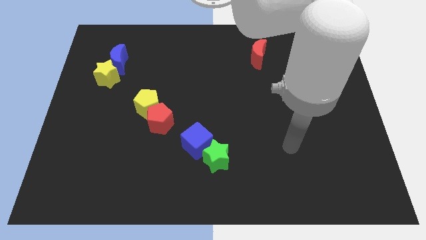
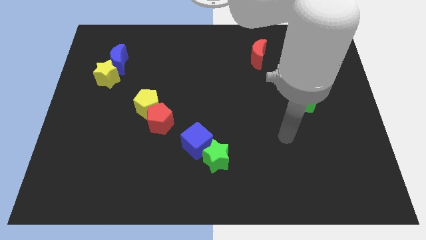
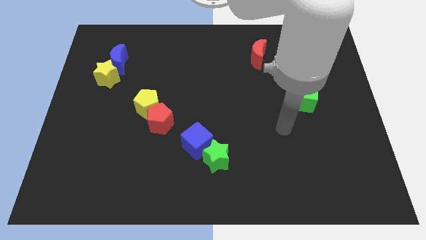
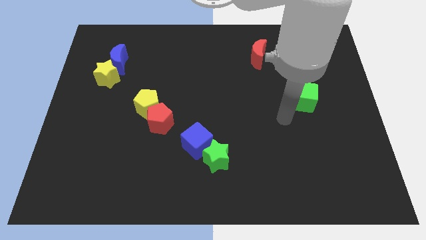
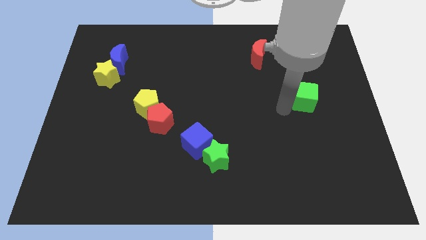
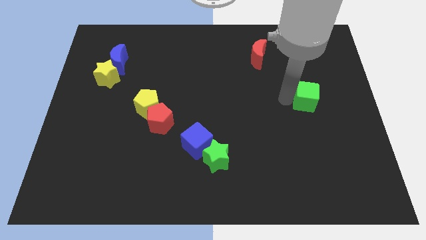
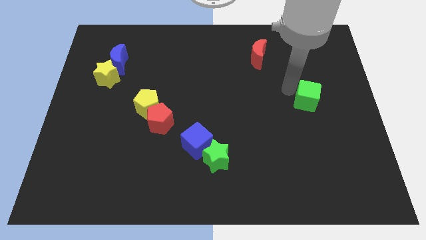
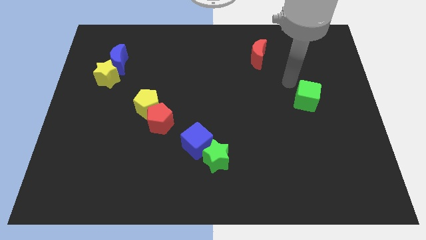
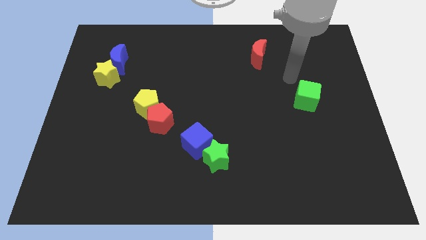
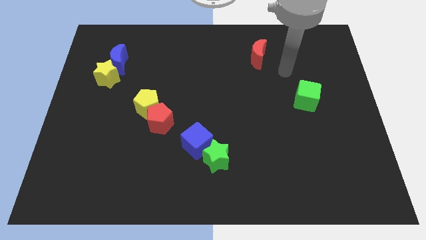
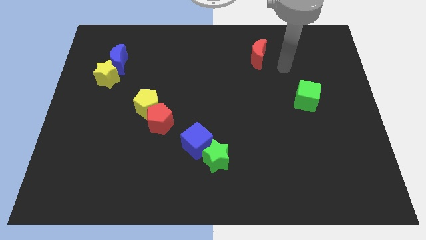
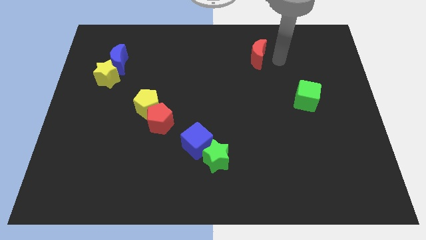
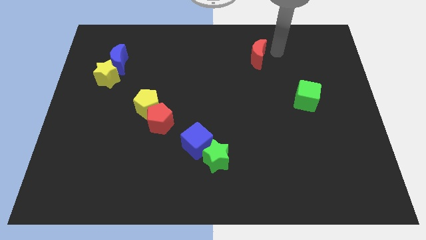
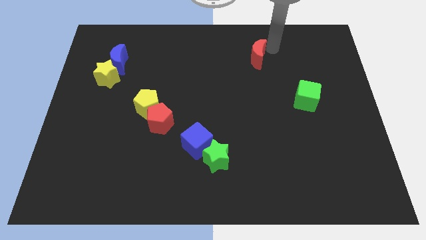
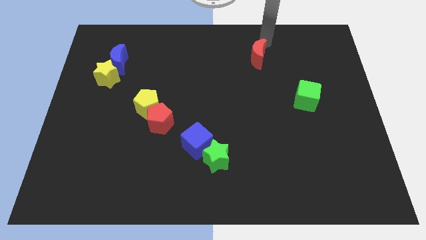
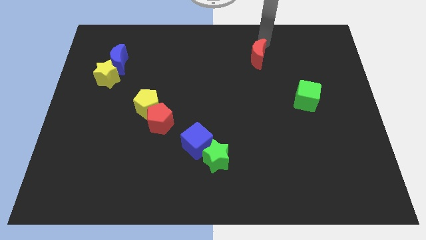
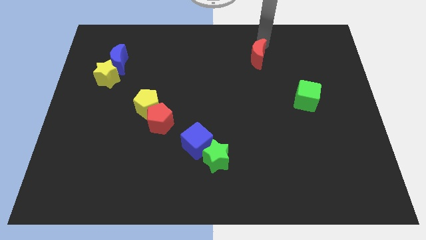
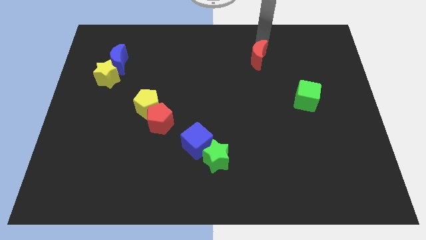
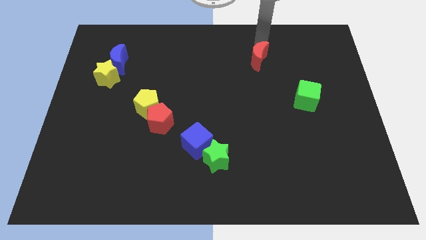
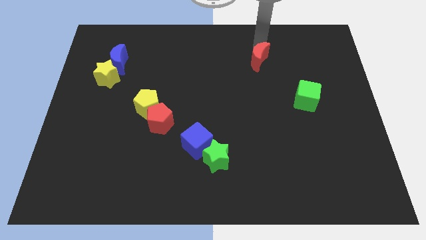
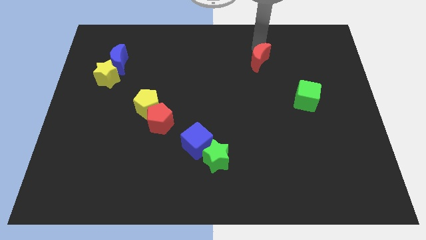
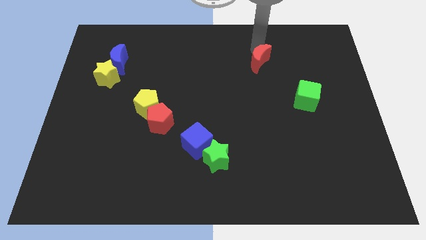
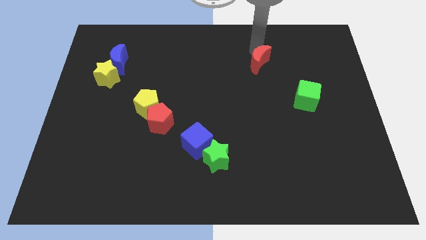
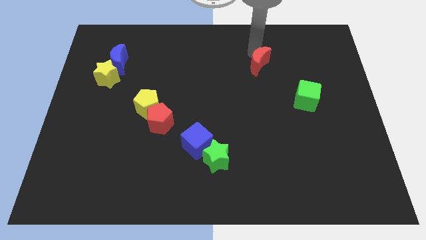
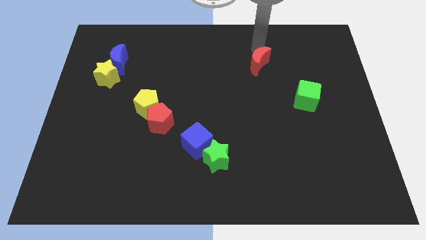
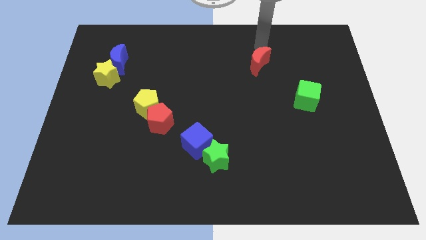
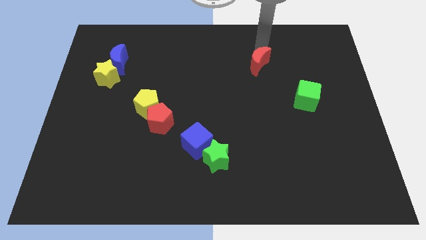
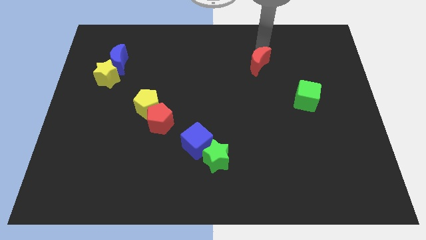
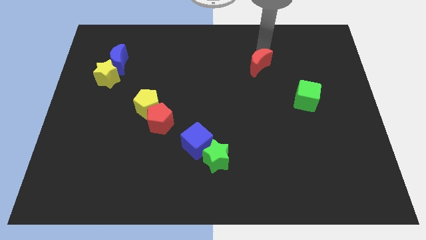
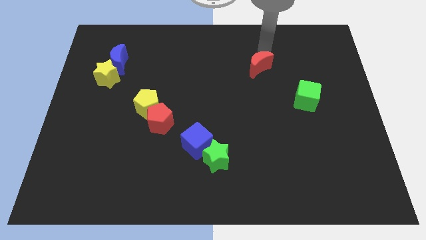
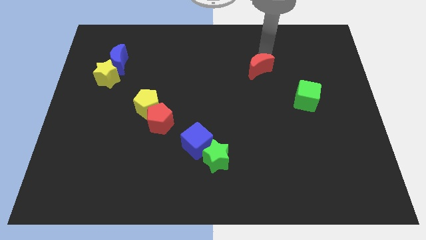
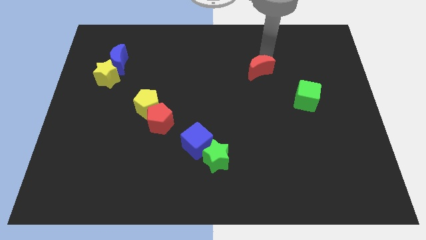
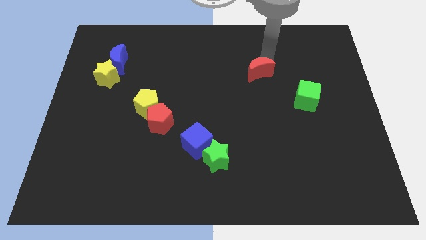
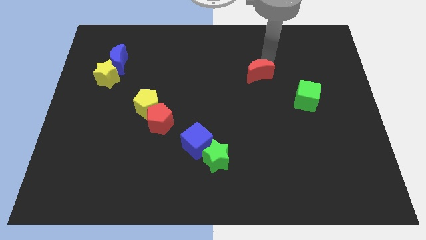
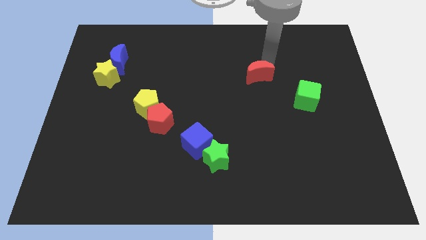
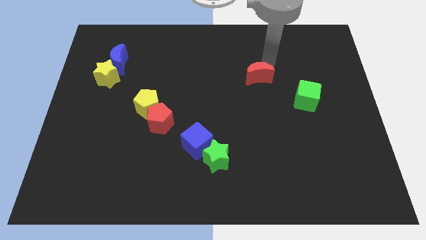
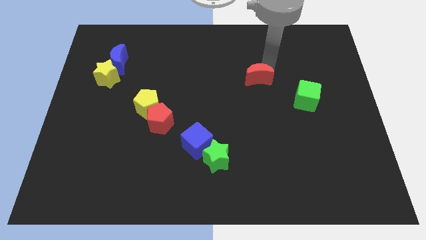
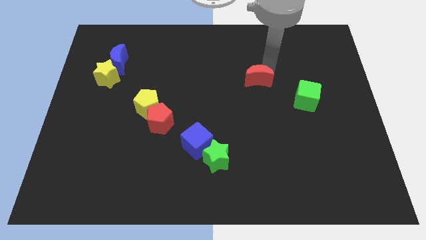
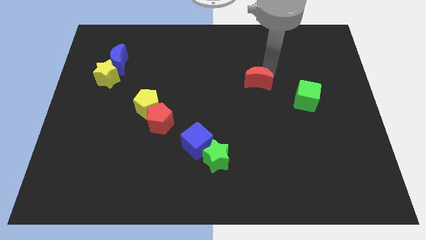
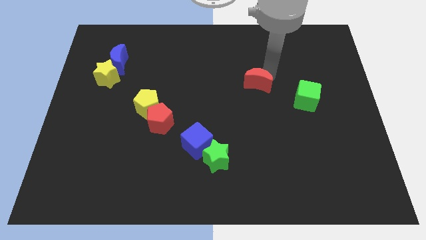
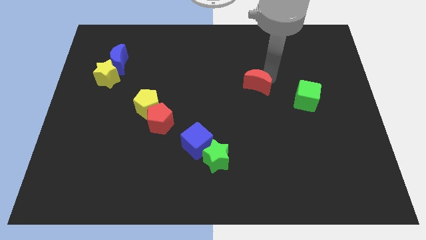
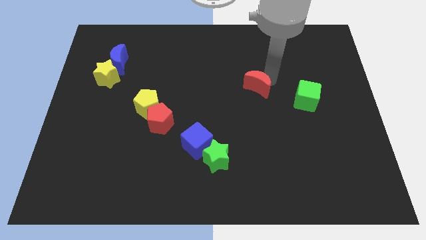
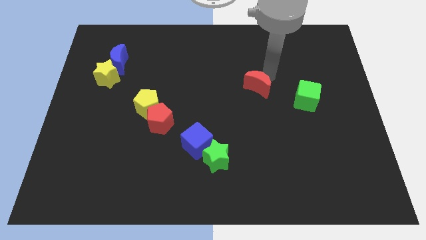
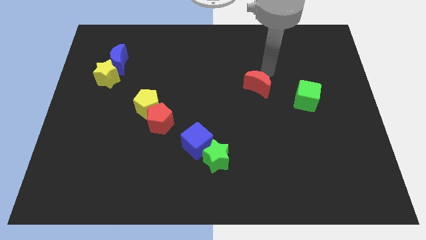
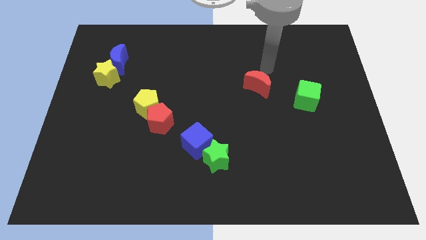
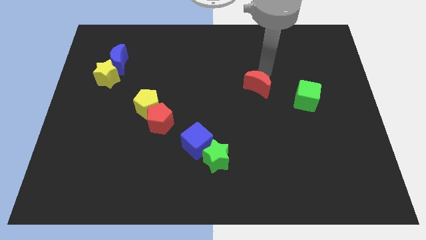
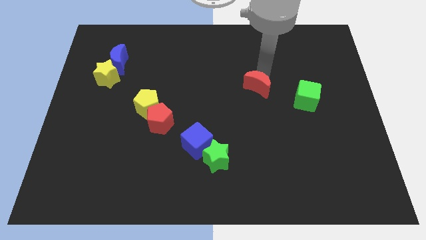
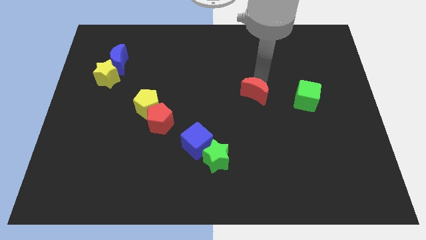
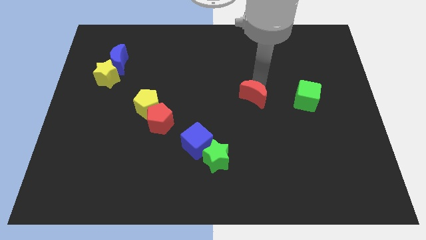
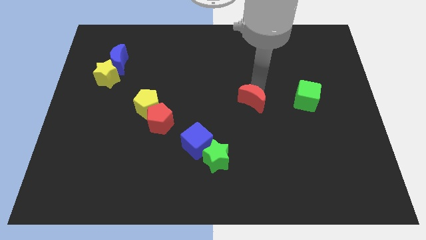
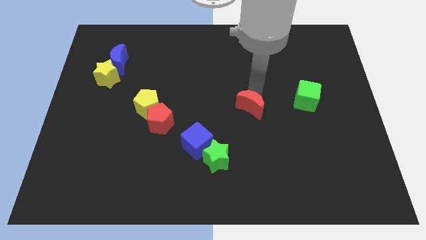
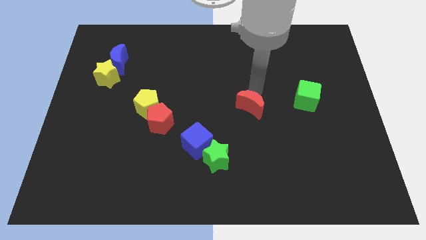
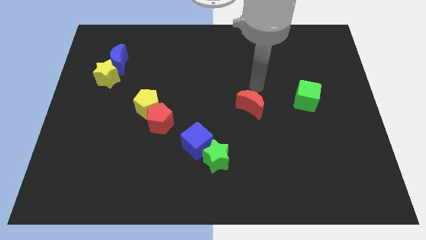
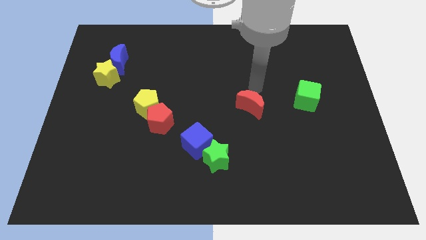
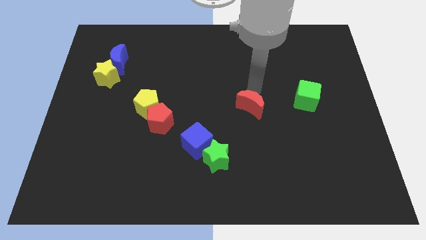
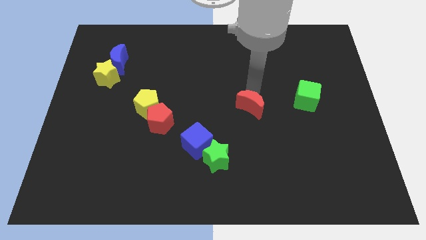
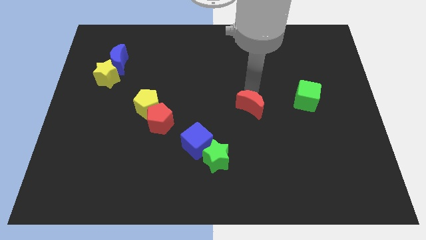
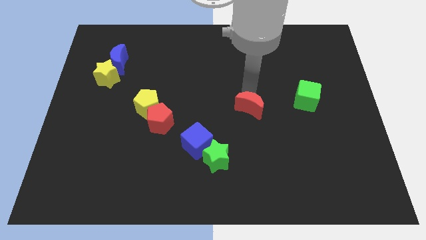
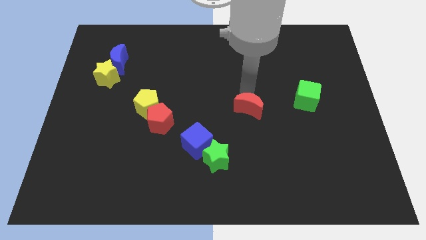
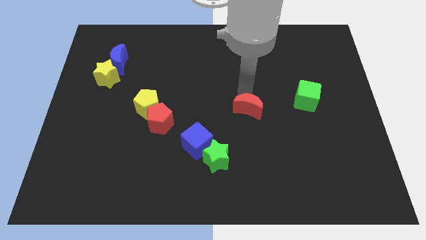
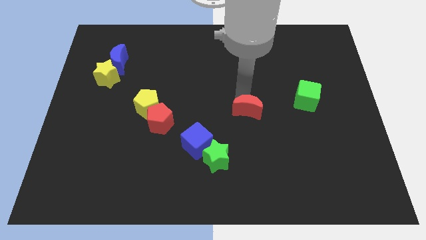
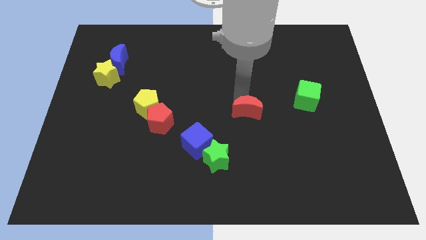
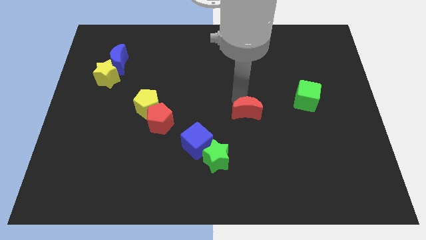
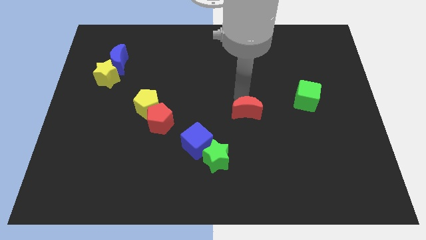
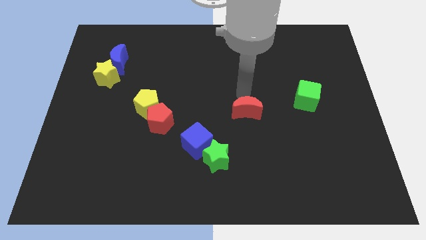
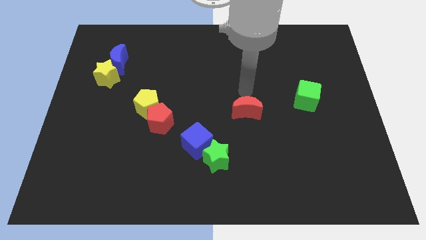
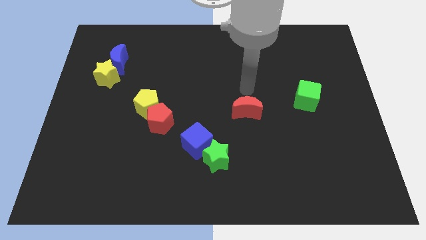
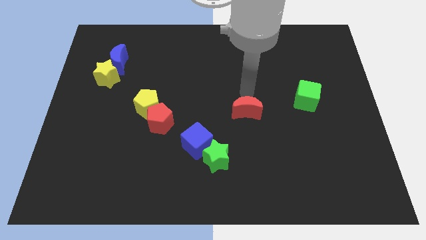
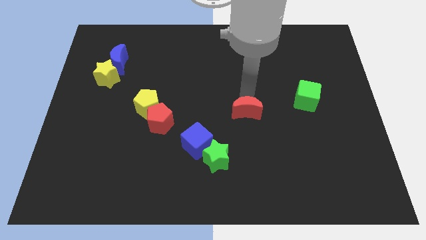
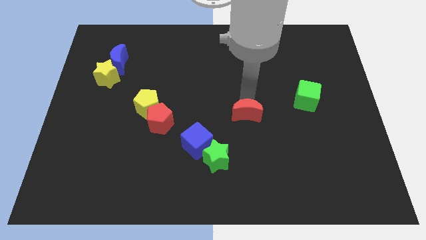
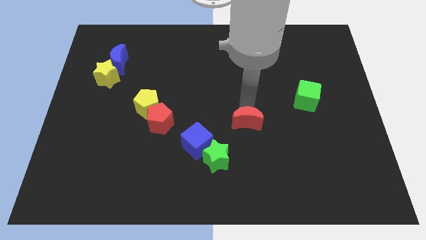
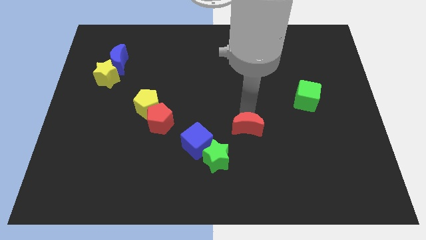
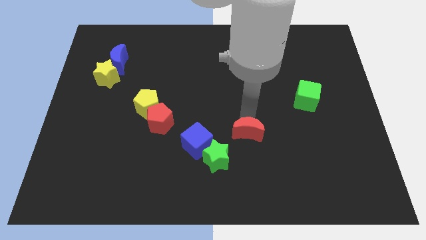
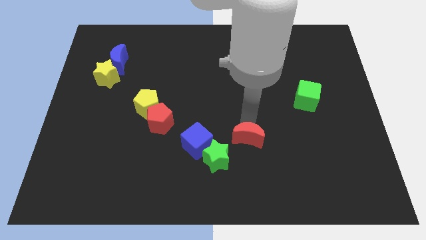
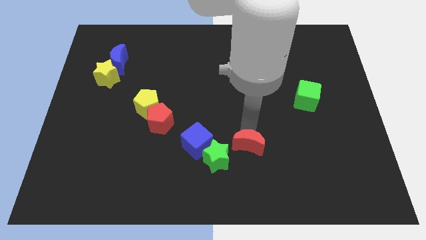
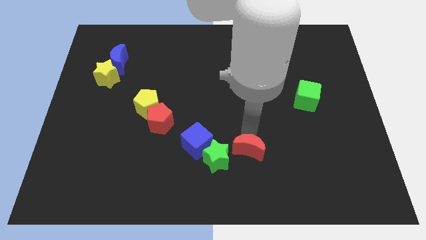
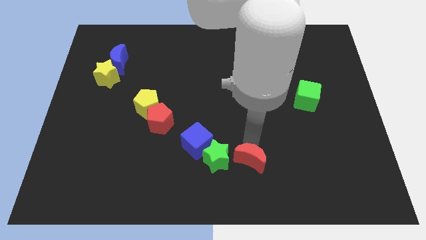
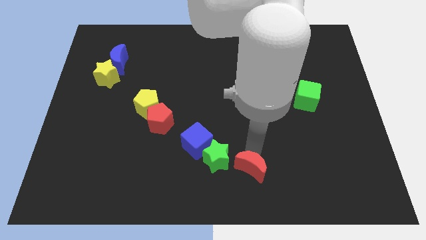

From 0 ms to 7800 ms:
slide the red moon to the bottom
